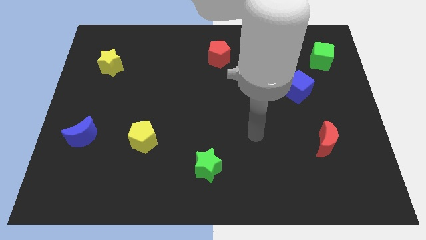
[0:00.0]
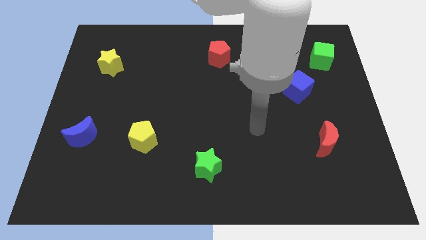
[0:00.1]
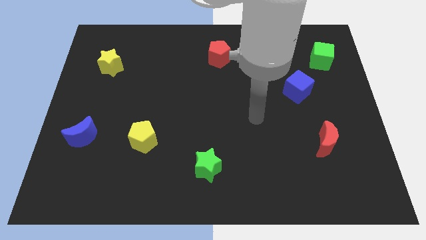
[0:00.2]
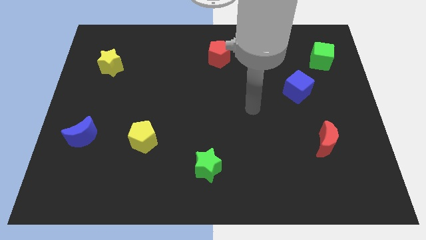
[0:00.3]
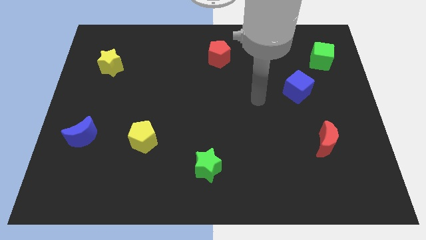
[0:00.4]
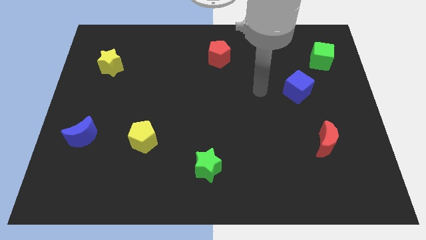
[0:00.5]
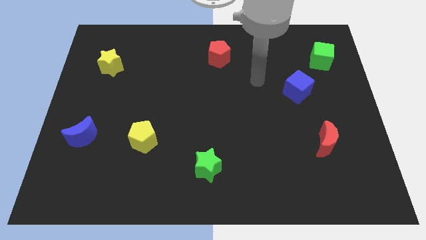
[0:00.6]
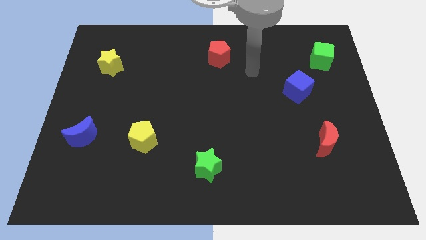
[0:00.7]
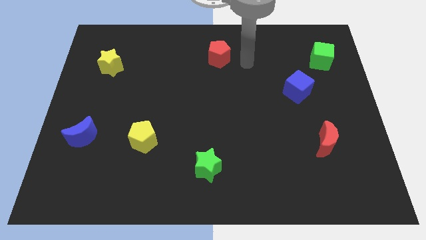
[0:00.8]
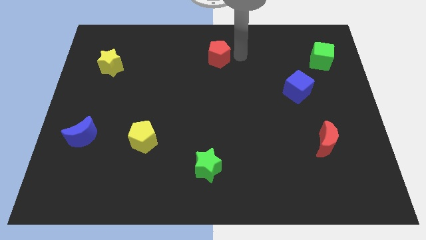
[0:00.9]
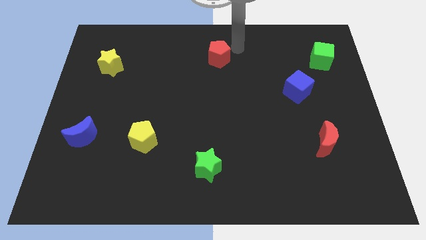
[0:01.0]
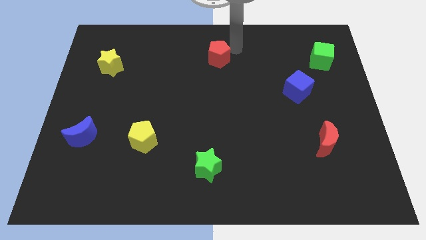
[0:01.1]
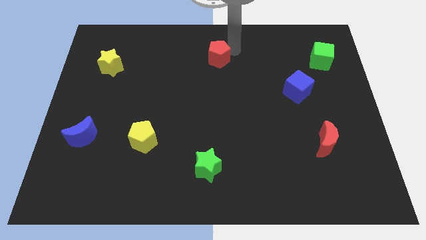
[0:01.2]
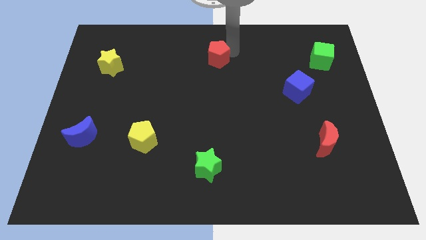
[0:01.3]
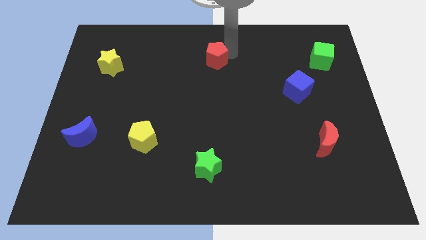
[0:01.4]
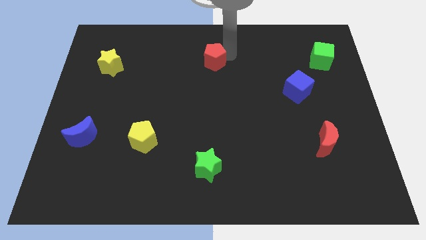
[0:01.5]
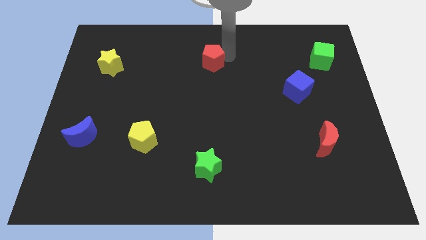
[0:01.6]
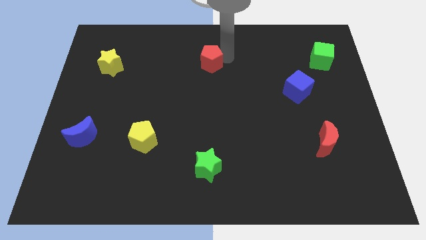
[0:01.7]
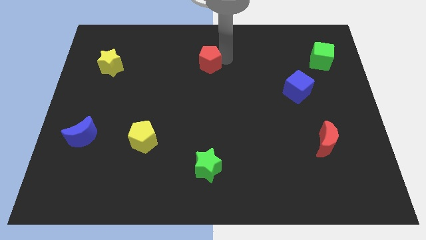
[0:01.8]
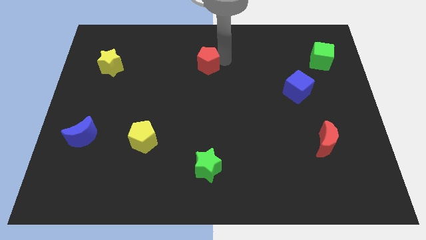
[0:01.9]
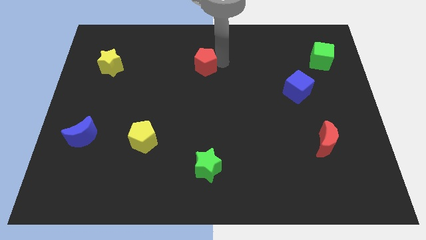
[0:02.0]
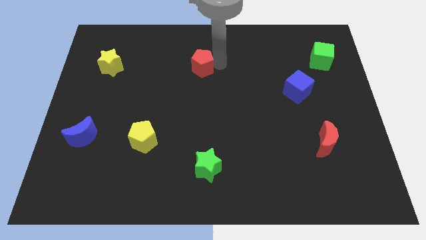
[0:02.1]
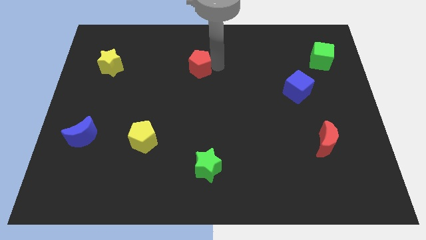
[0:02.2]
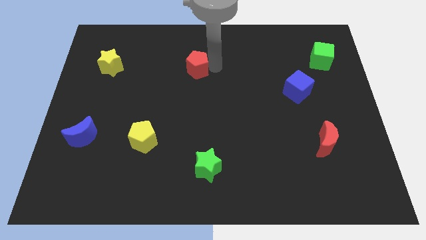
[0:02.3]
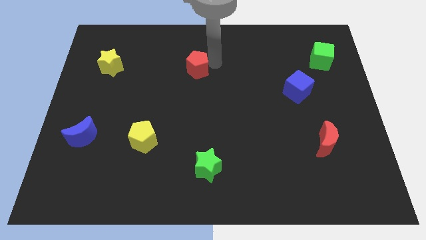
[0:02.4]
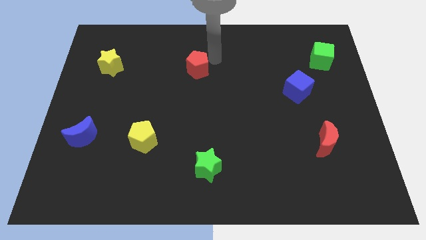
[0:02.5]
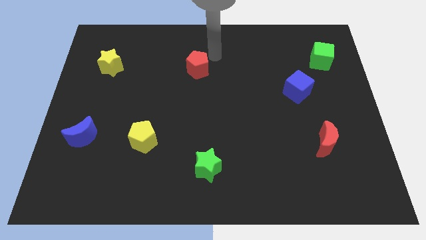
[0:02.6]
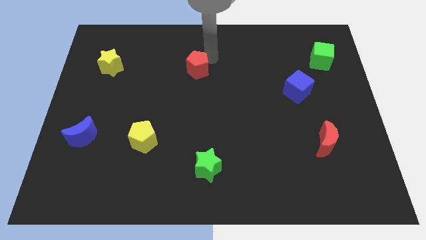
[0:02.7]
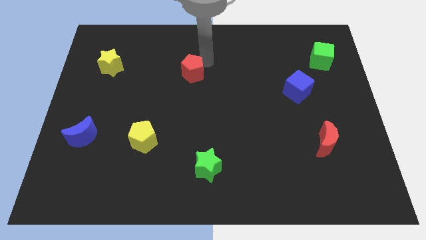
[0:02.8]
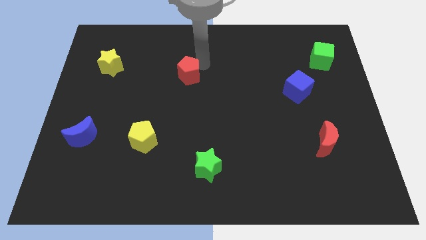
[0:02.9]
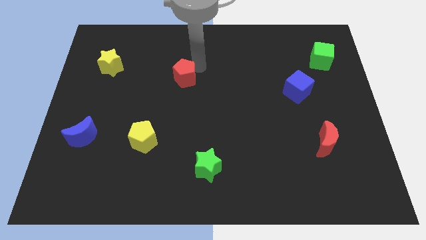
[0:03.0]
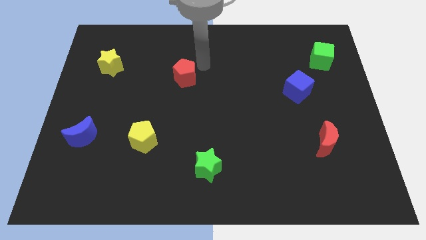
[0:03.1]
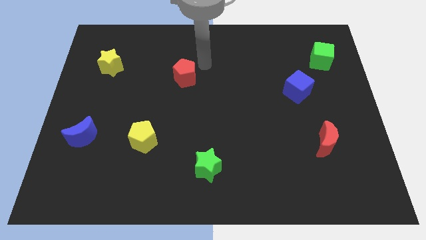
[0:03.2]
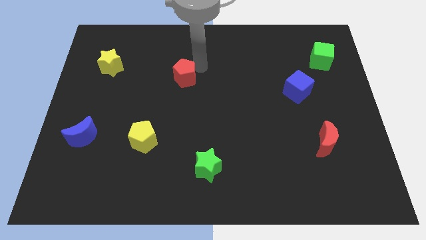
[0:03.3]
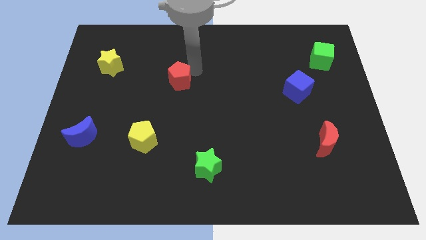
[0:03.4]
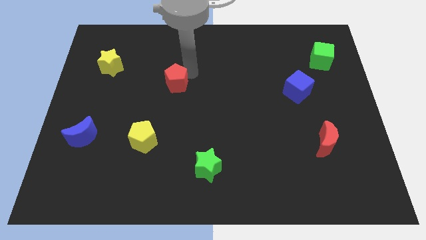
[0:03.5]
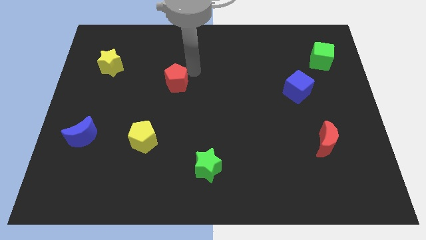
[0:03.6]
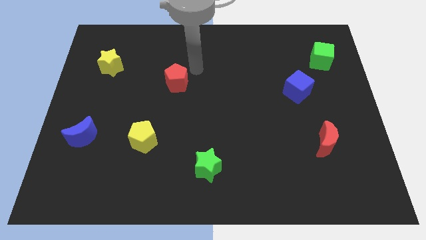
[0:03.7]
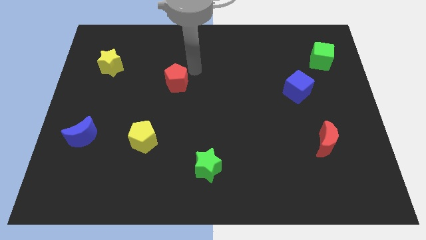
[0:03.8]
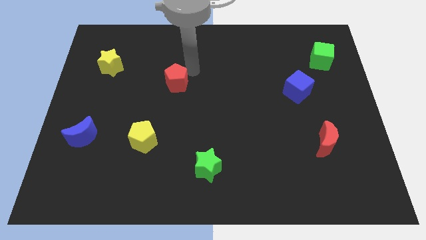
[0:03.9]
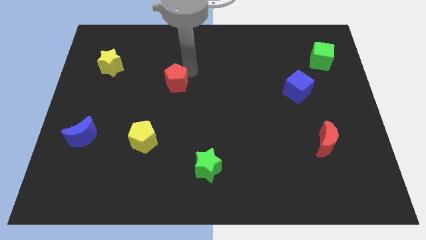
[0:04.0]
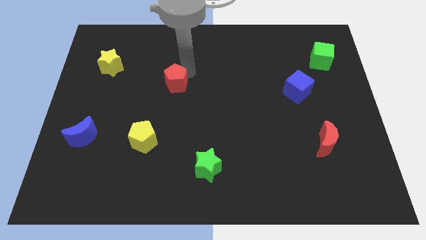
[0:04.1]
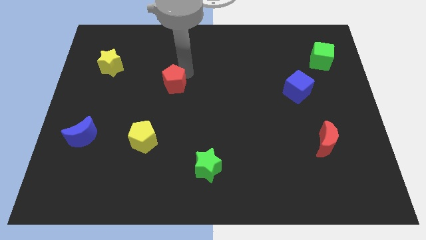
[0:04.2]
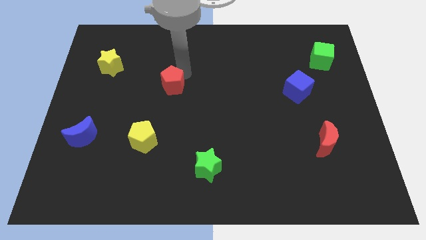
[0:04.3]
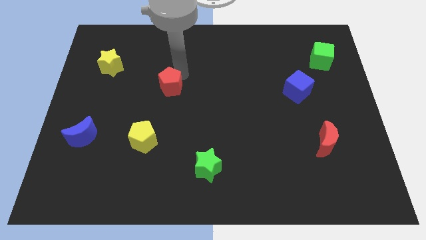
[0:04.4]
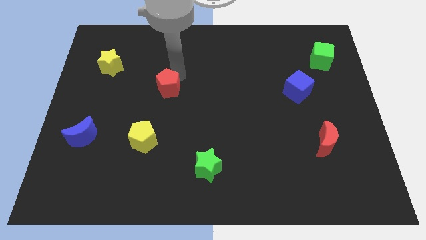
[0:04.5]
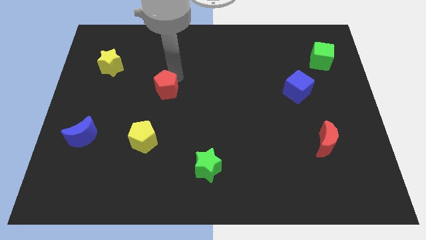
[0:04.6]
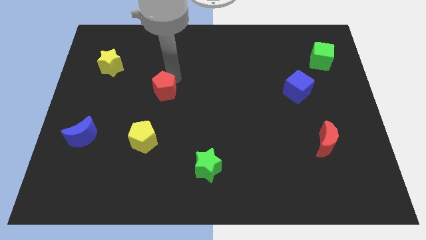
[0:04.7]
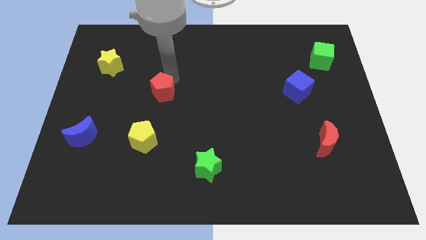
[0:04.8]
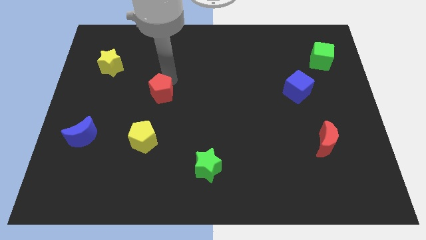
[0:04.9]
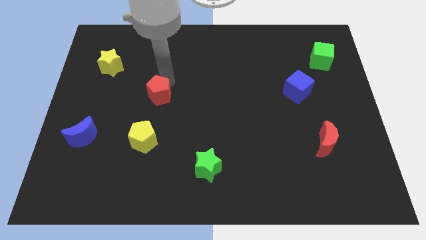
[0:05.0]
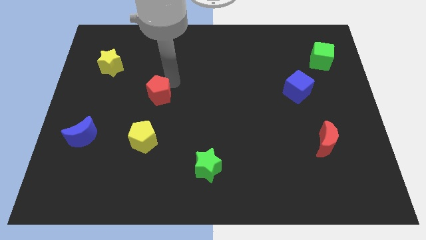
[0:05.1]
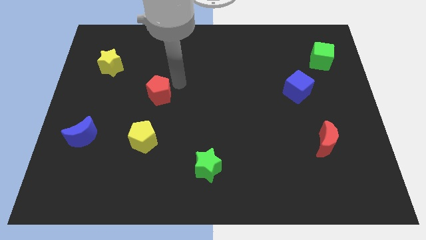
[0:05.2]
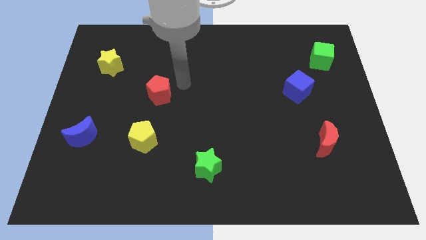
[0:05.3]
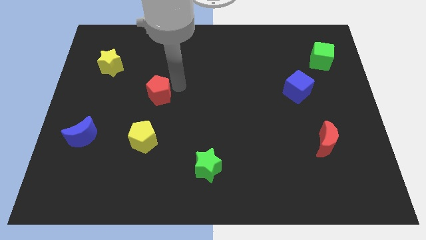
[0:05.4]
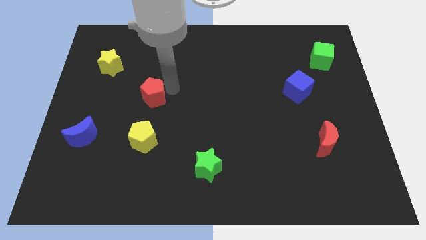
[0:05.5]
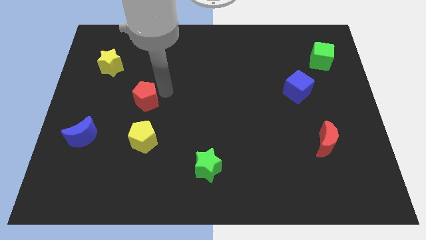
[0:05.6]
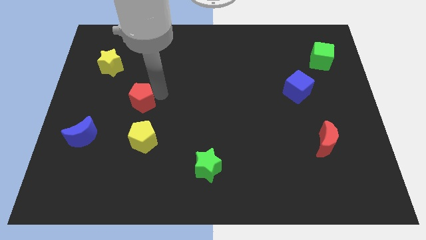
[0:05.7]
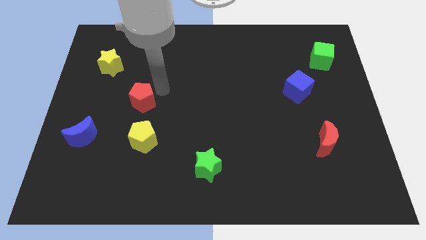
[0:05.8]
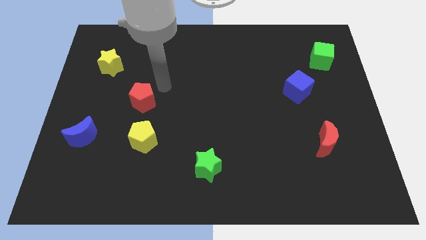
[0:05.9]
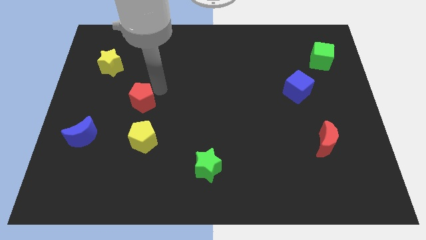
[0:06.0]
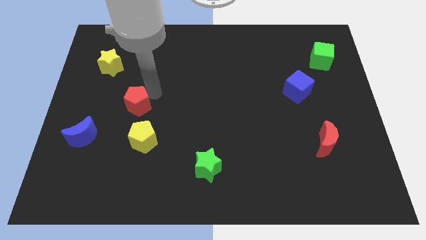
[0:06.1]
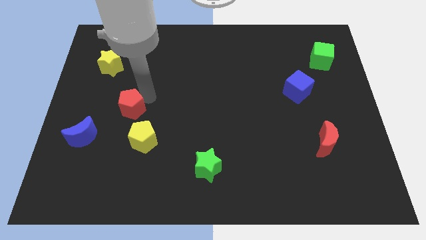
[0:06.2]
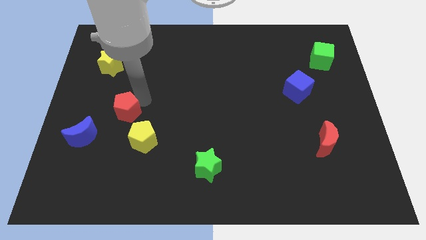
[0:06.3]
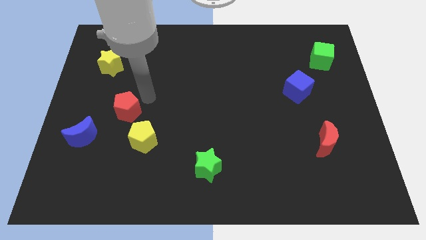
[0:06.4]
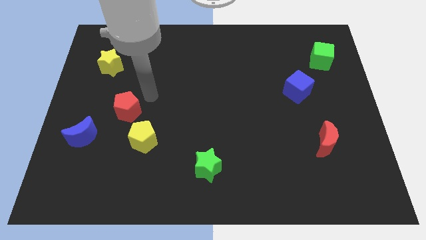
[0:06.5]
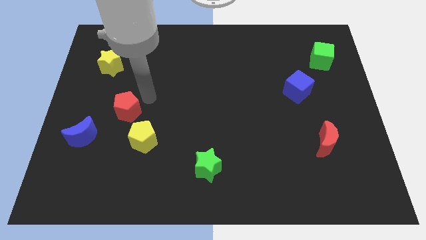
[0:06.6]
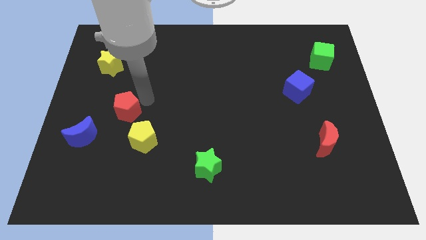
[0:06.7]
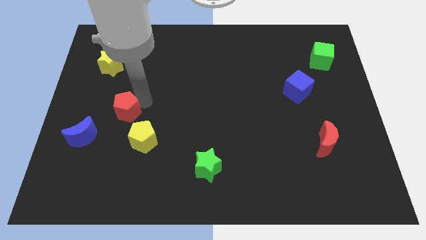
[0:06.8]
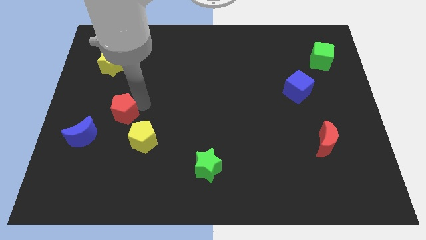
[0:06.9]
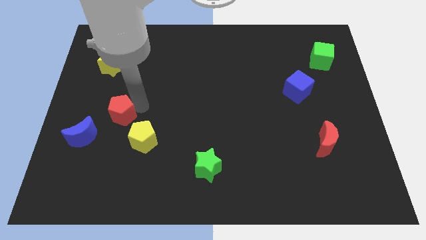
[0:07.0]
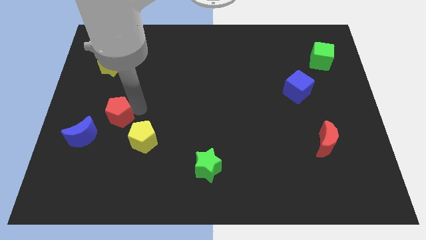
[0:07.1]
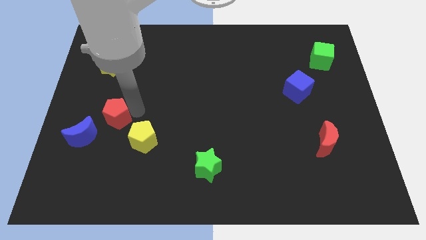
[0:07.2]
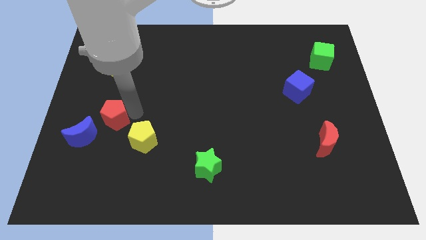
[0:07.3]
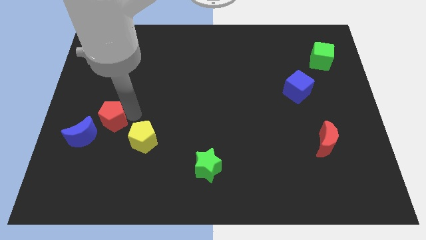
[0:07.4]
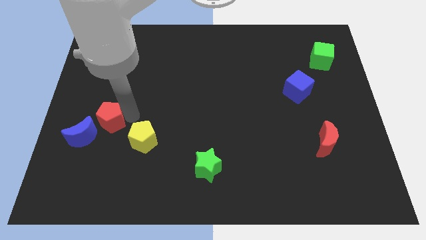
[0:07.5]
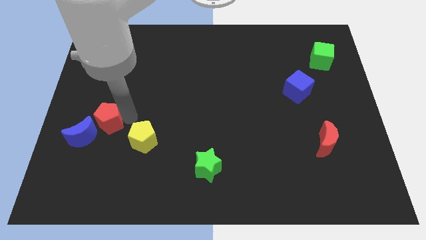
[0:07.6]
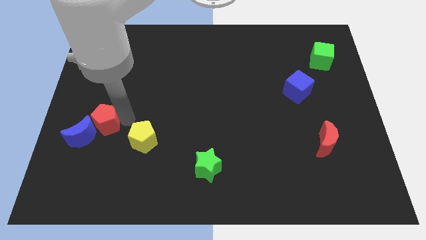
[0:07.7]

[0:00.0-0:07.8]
move the red pentagon next to the blue moon
